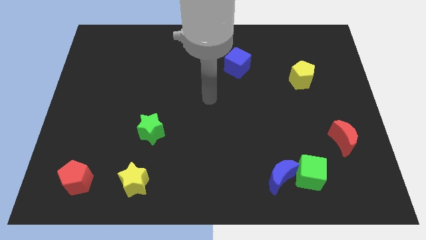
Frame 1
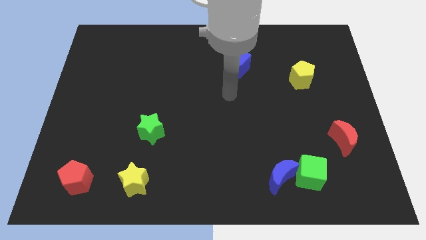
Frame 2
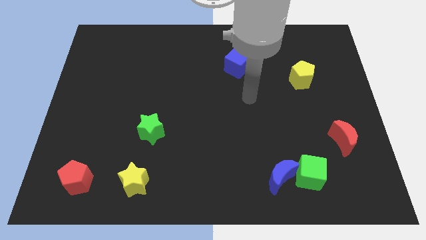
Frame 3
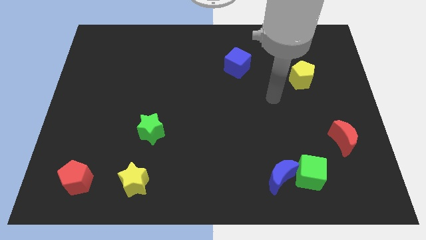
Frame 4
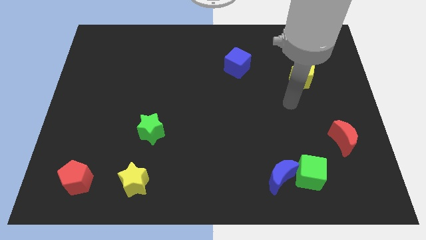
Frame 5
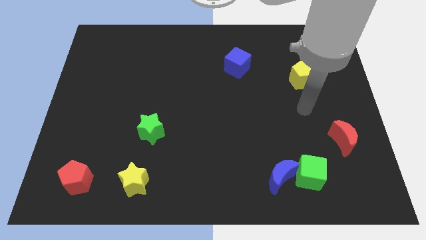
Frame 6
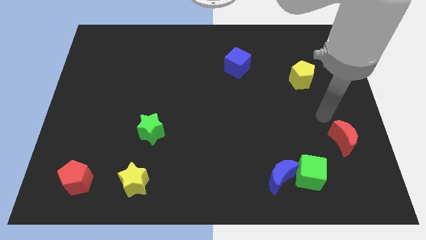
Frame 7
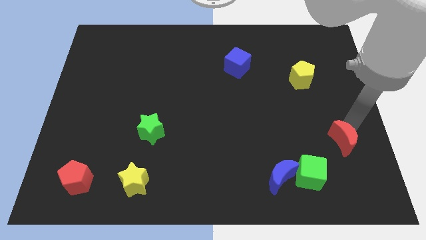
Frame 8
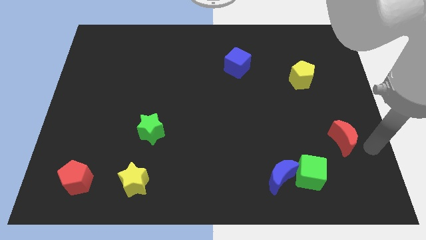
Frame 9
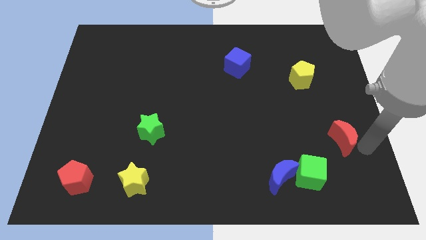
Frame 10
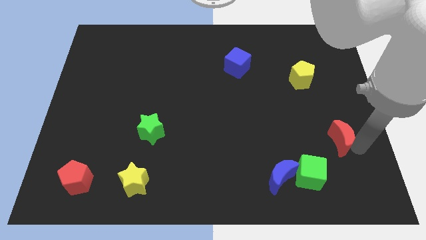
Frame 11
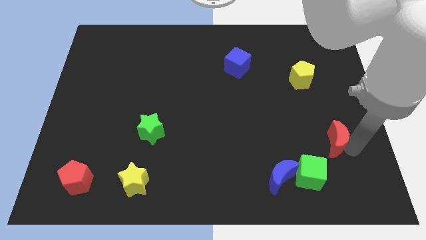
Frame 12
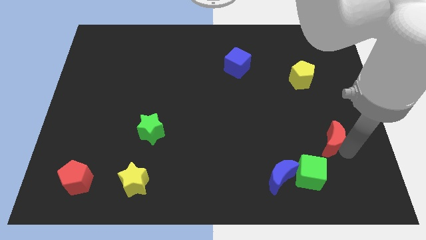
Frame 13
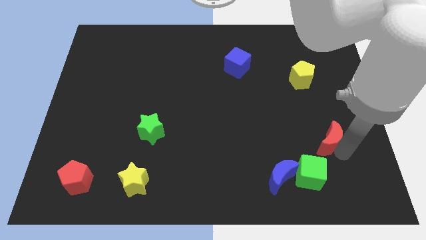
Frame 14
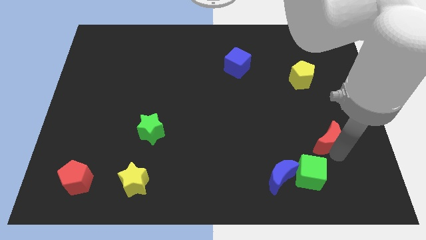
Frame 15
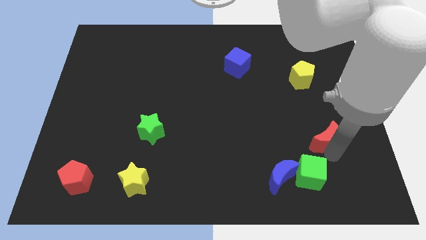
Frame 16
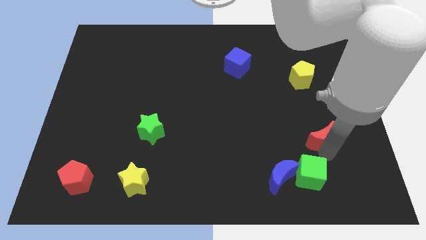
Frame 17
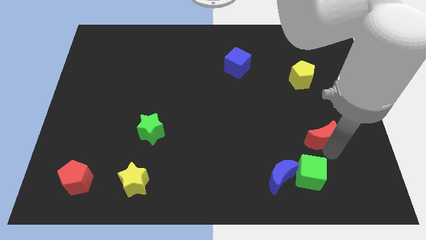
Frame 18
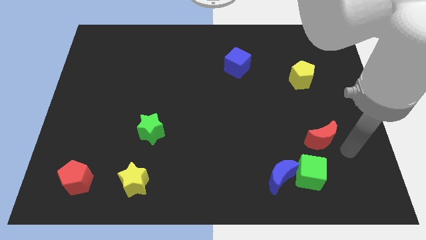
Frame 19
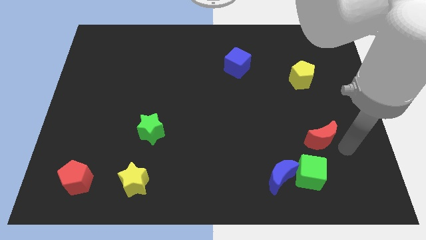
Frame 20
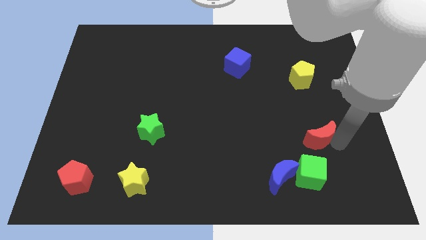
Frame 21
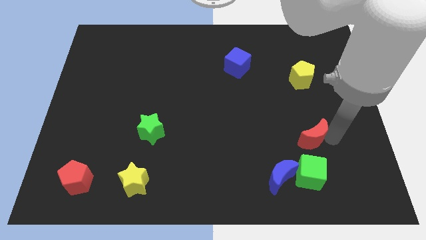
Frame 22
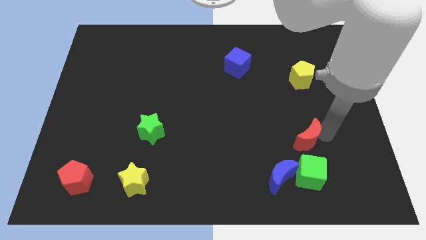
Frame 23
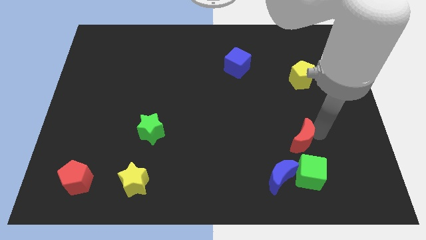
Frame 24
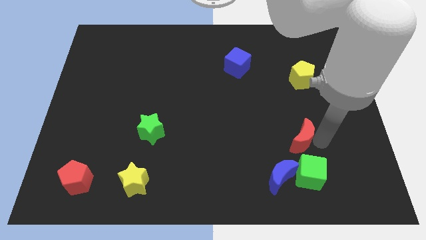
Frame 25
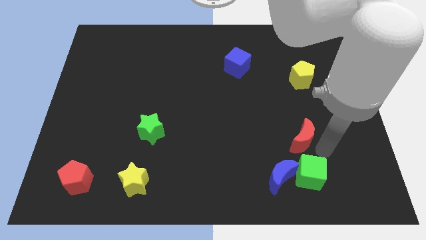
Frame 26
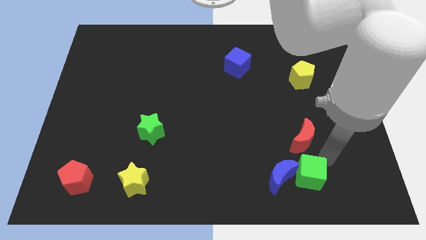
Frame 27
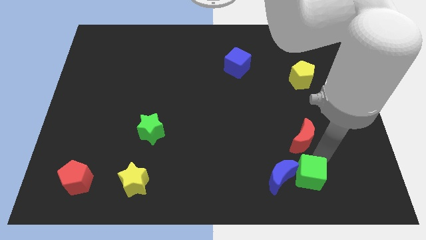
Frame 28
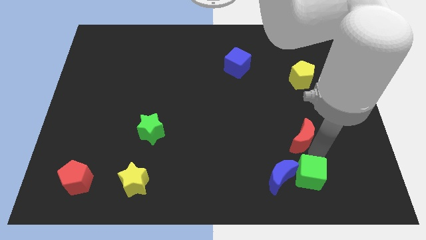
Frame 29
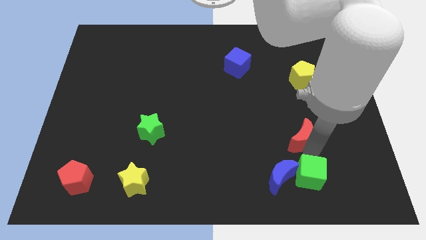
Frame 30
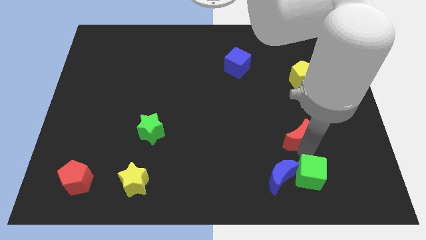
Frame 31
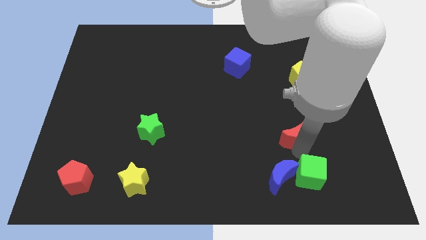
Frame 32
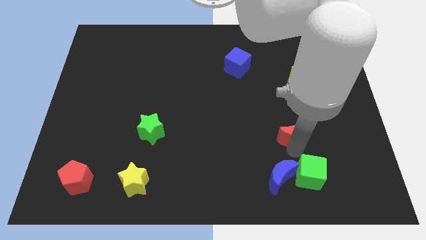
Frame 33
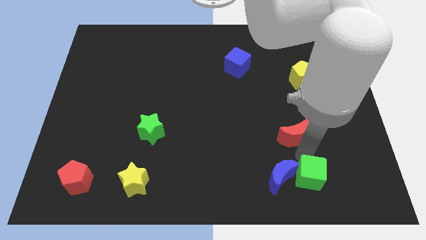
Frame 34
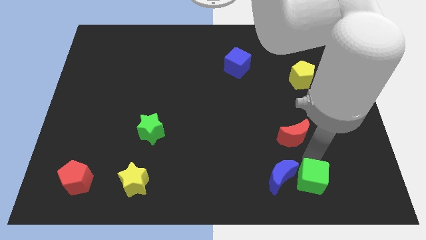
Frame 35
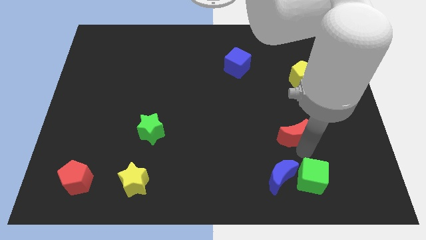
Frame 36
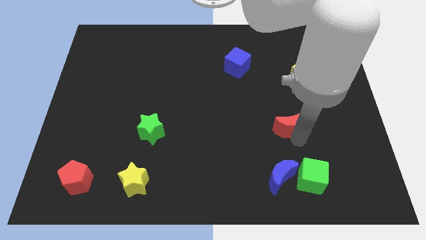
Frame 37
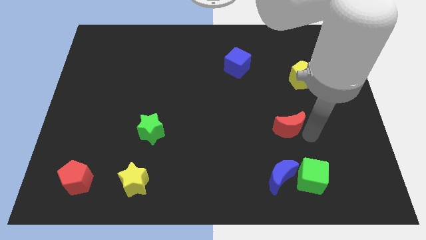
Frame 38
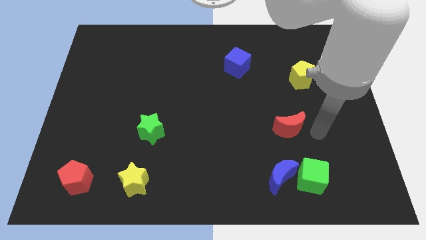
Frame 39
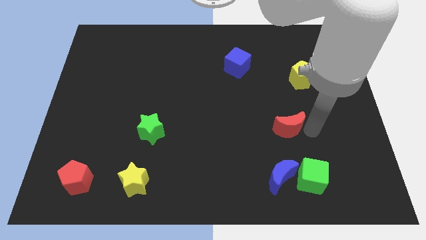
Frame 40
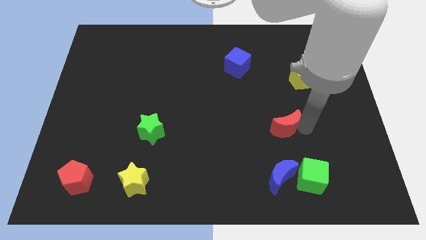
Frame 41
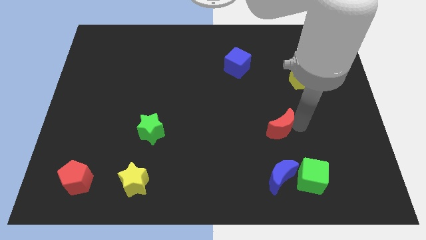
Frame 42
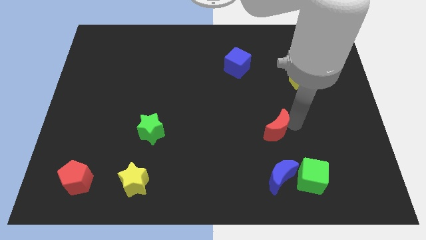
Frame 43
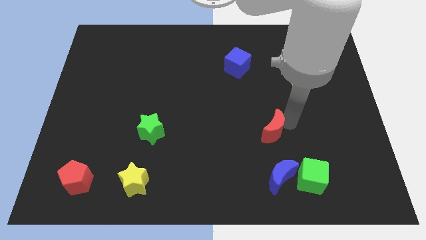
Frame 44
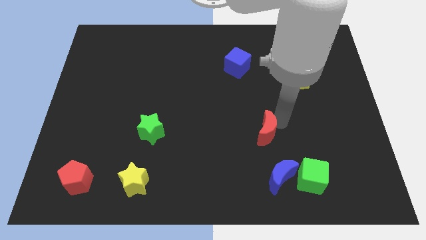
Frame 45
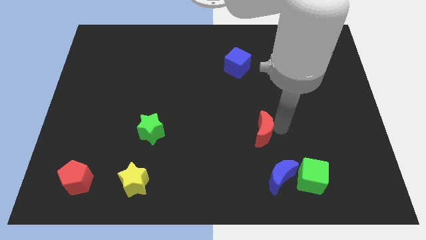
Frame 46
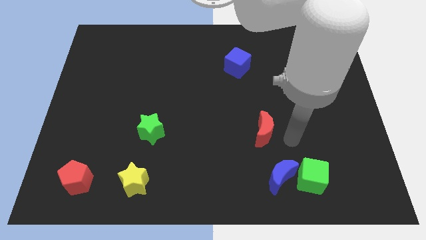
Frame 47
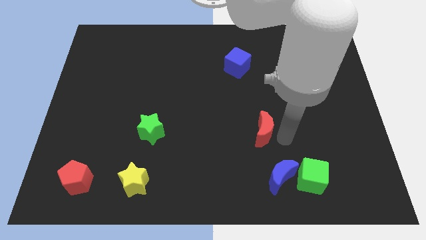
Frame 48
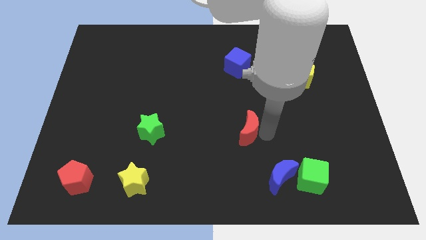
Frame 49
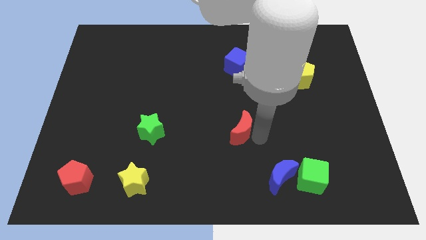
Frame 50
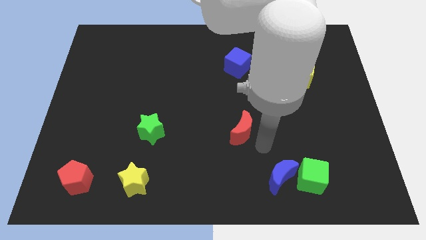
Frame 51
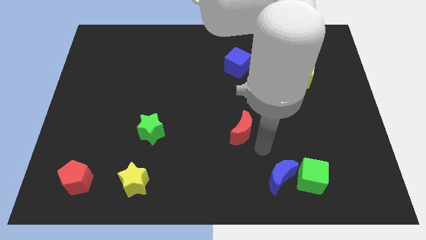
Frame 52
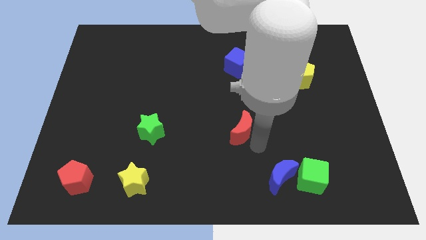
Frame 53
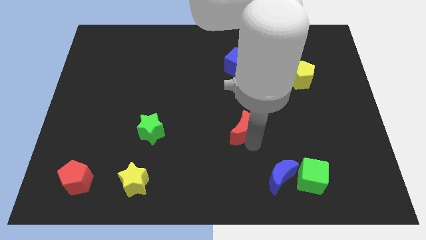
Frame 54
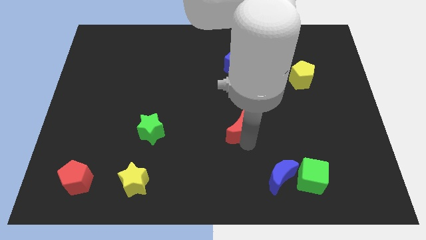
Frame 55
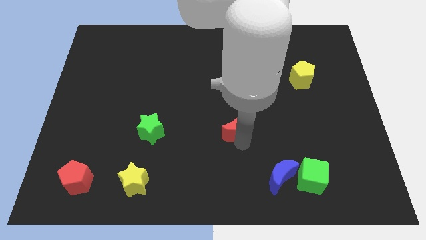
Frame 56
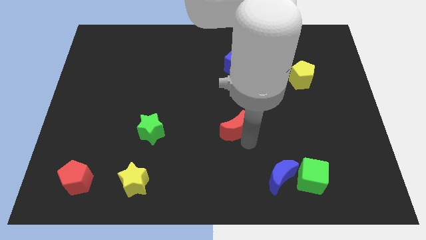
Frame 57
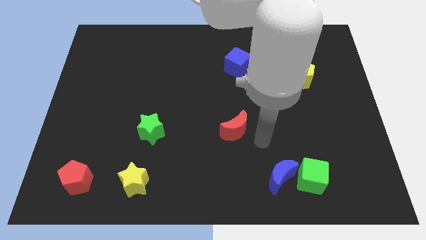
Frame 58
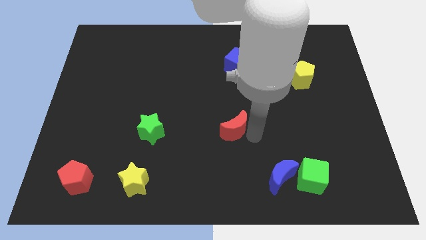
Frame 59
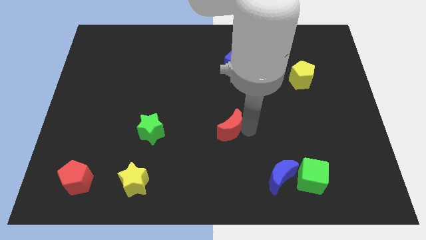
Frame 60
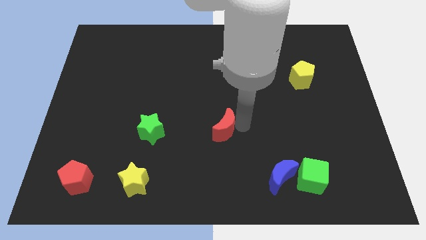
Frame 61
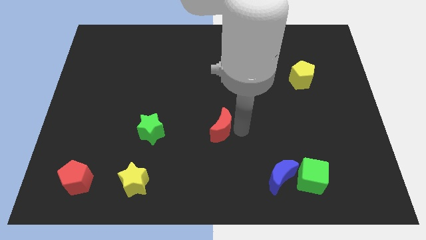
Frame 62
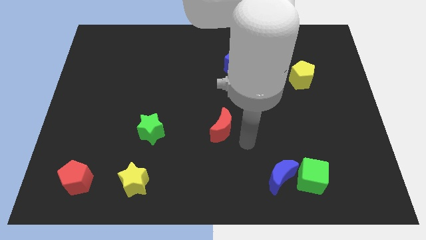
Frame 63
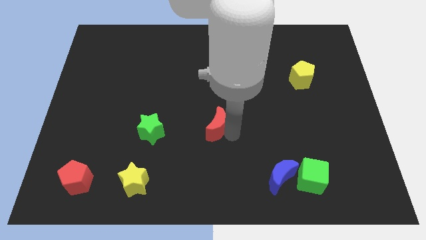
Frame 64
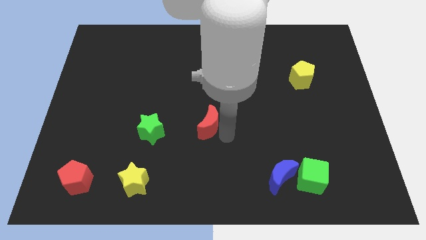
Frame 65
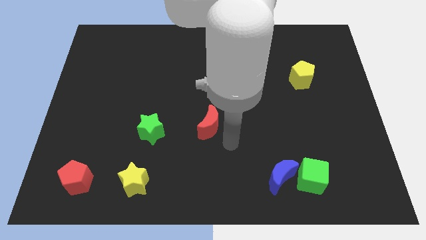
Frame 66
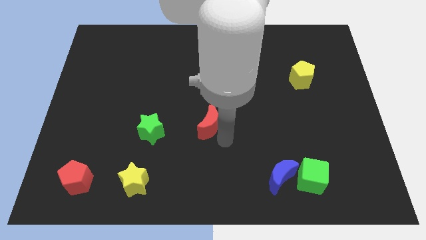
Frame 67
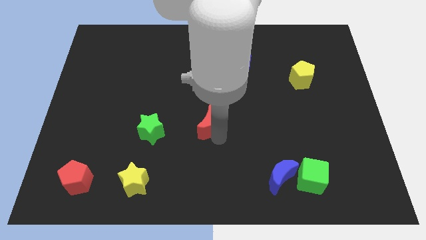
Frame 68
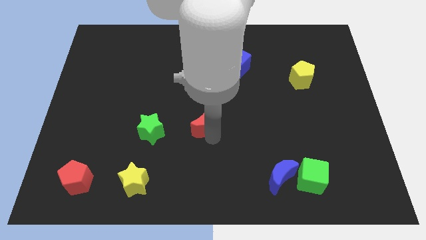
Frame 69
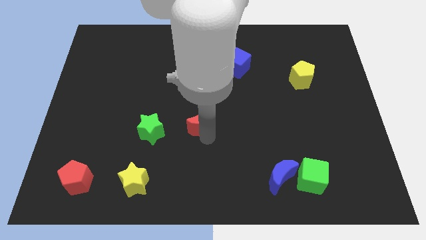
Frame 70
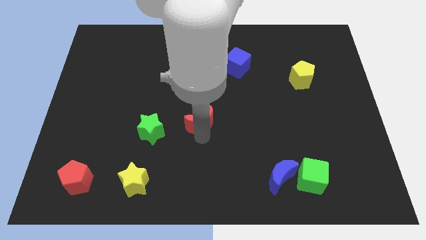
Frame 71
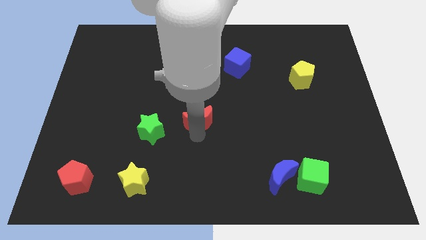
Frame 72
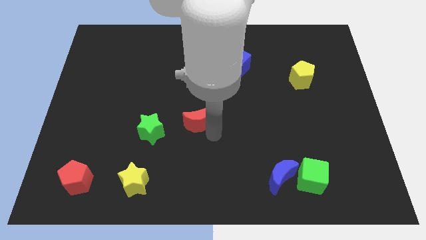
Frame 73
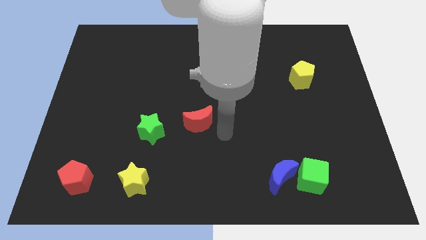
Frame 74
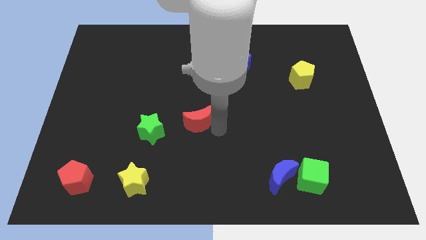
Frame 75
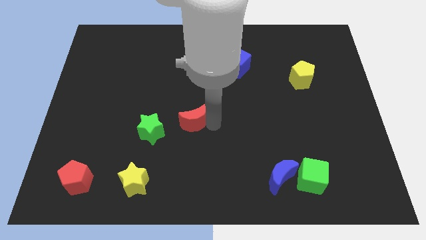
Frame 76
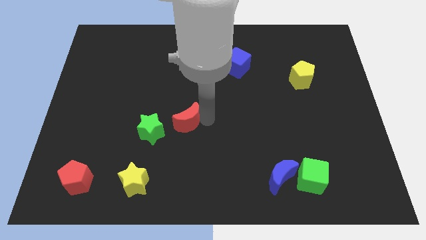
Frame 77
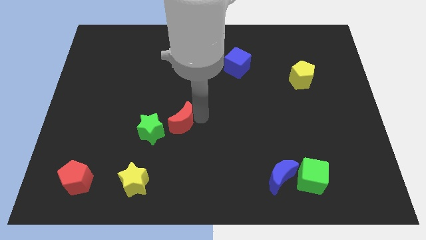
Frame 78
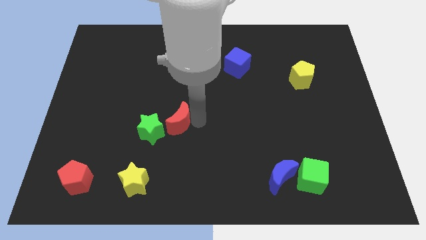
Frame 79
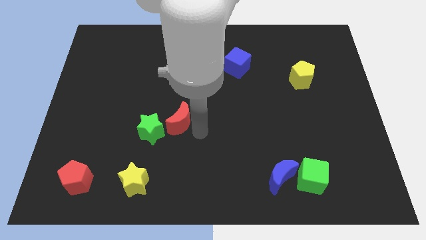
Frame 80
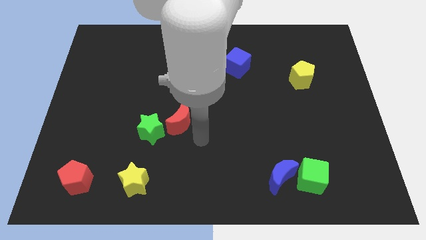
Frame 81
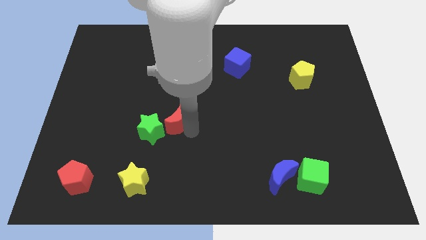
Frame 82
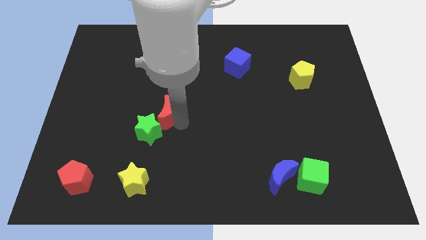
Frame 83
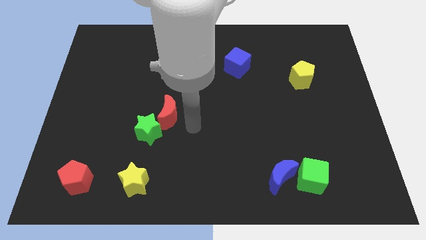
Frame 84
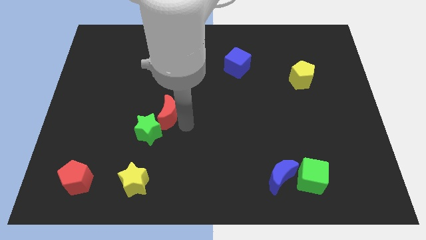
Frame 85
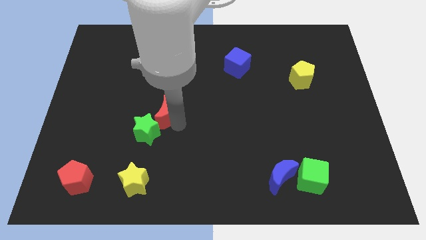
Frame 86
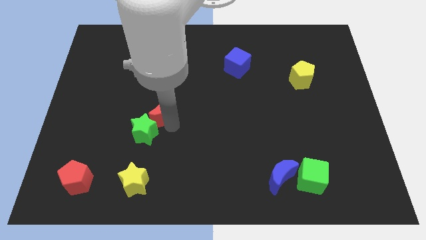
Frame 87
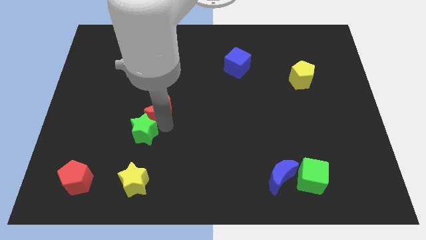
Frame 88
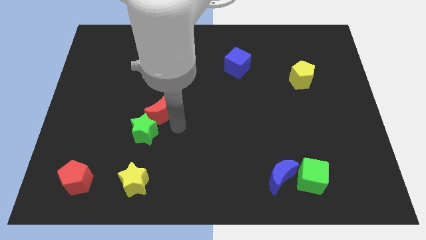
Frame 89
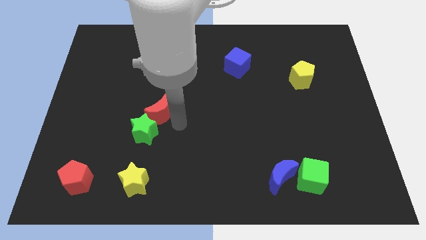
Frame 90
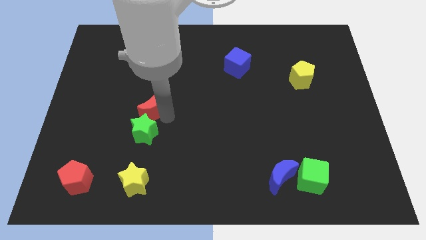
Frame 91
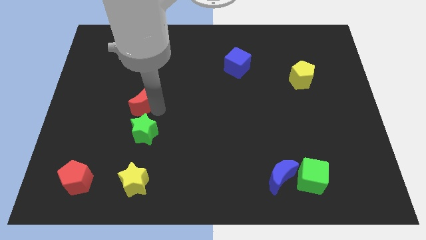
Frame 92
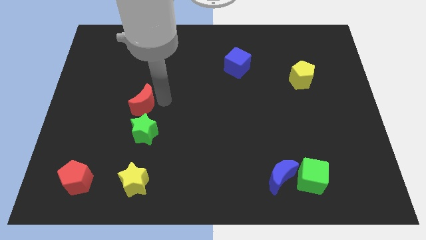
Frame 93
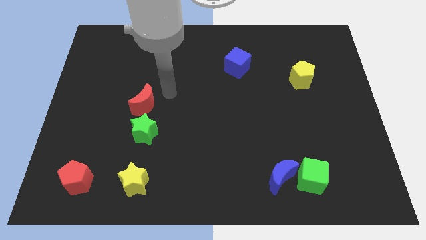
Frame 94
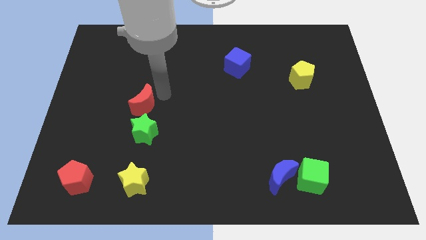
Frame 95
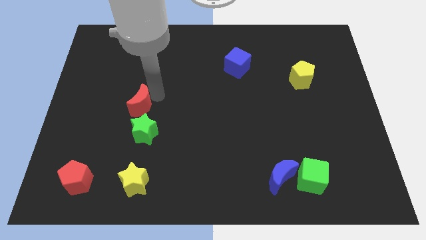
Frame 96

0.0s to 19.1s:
push the red moon diagonally up and to the left of the green star
